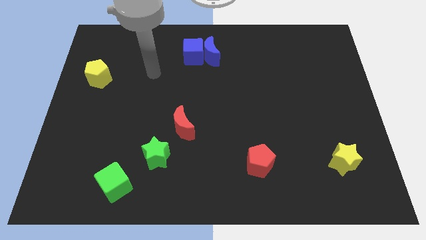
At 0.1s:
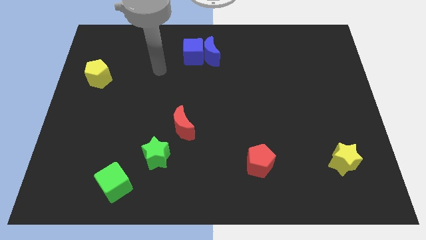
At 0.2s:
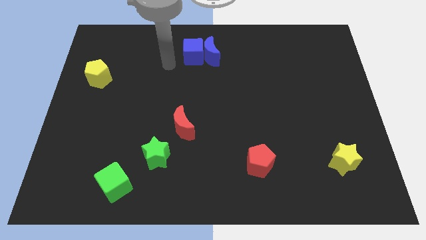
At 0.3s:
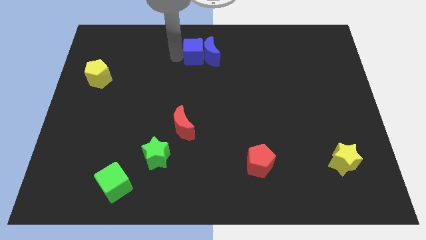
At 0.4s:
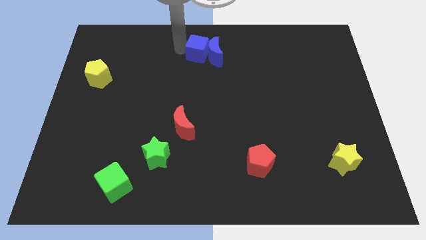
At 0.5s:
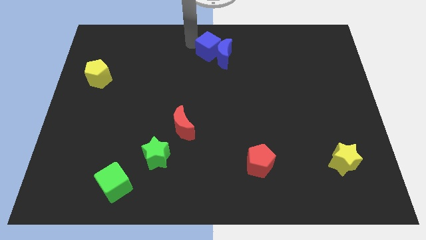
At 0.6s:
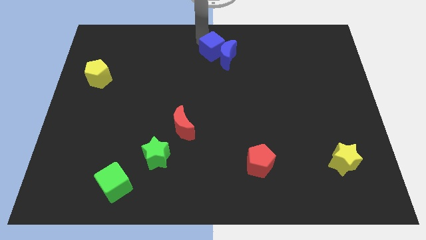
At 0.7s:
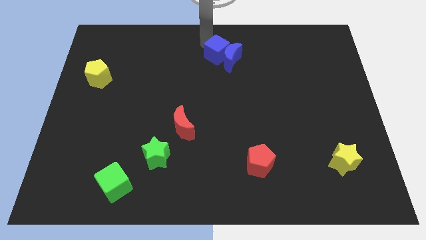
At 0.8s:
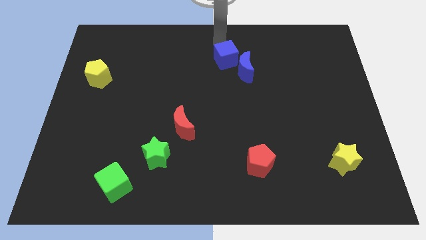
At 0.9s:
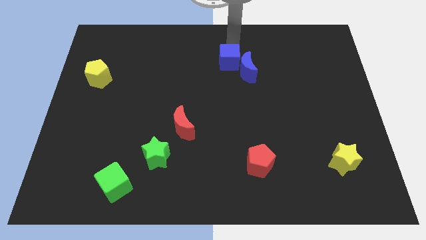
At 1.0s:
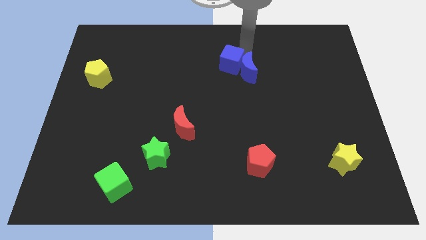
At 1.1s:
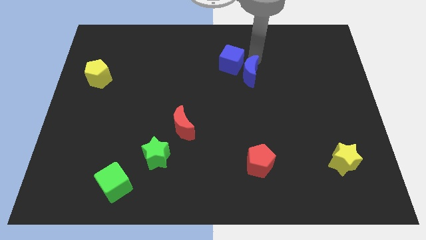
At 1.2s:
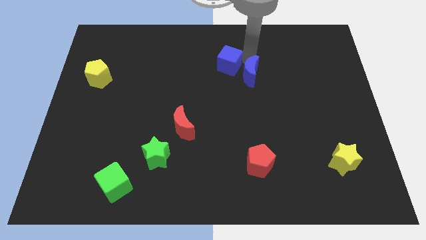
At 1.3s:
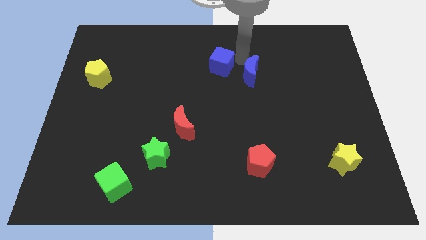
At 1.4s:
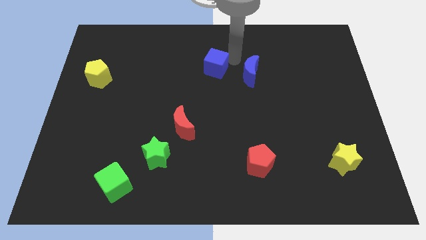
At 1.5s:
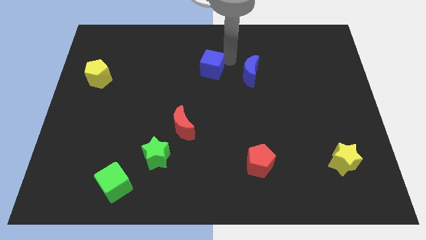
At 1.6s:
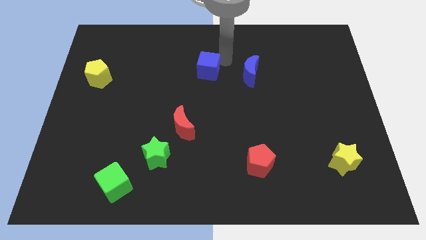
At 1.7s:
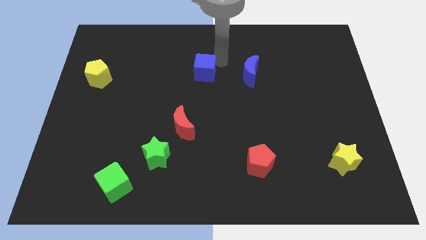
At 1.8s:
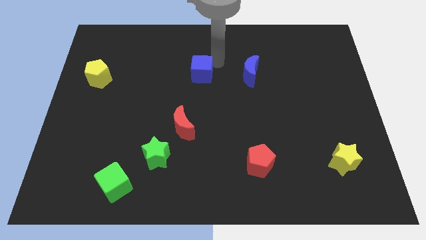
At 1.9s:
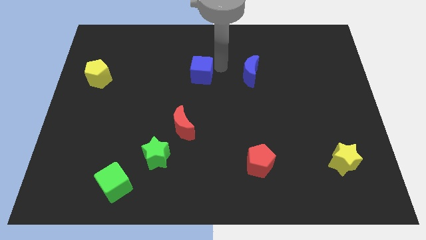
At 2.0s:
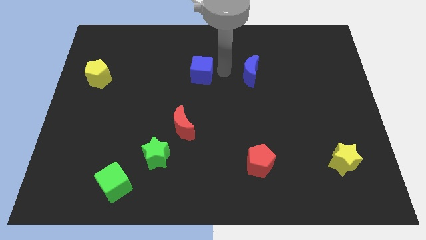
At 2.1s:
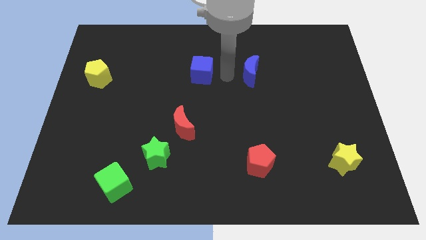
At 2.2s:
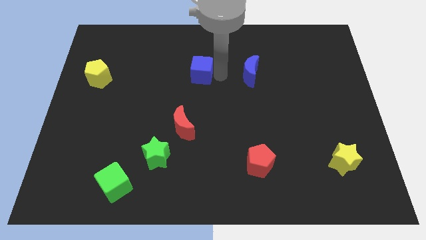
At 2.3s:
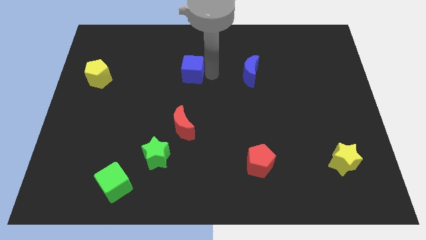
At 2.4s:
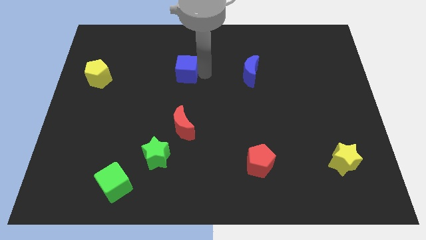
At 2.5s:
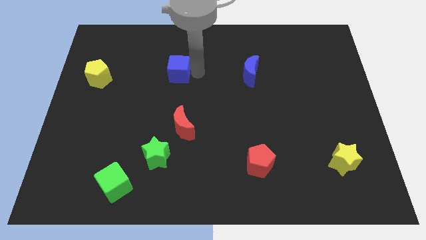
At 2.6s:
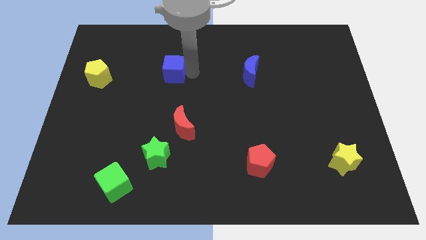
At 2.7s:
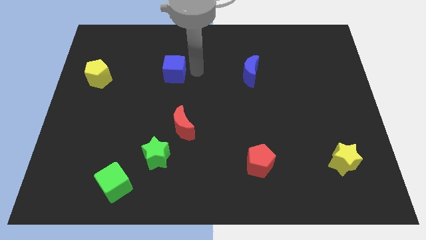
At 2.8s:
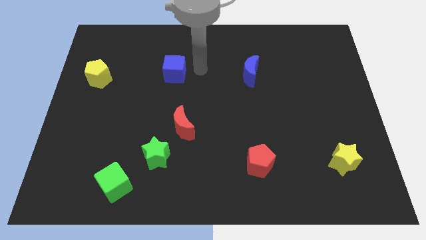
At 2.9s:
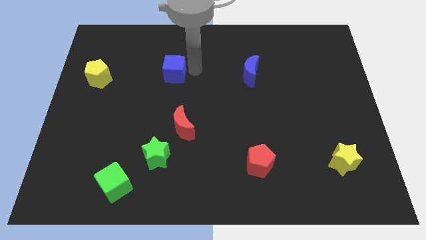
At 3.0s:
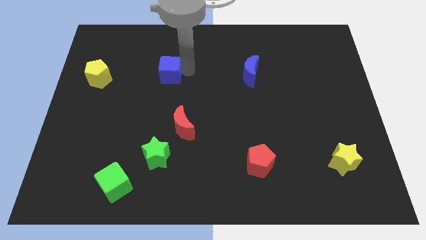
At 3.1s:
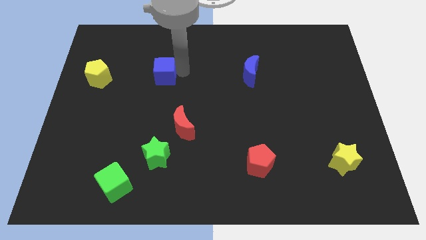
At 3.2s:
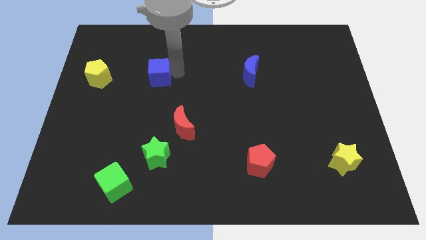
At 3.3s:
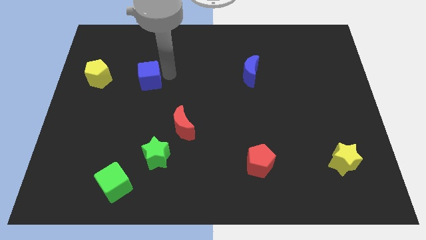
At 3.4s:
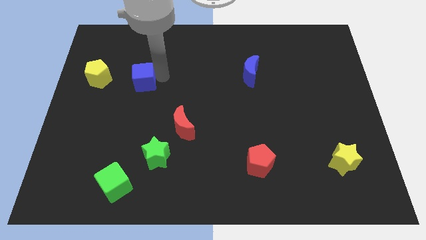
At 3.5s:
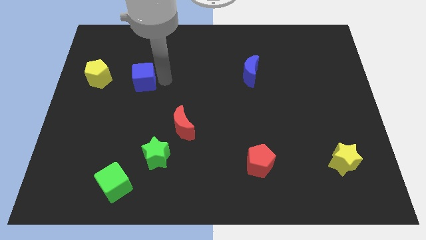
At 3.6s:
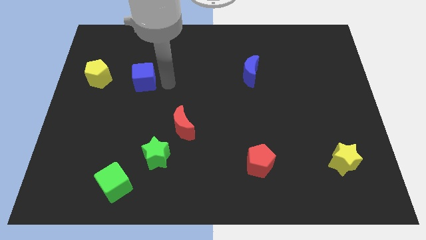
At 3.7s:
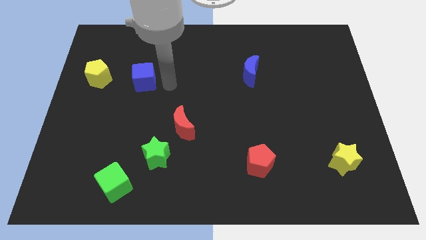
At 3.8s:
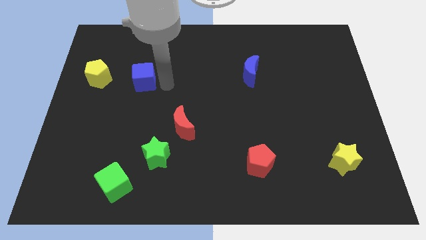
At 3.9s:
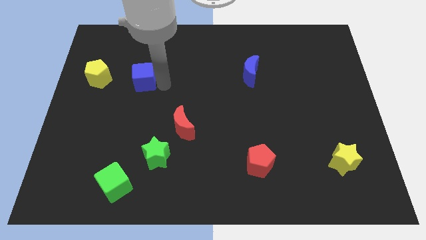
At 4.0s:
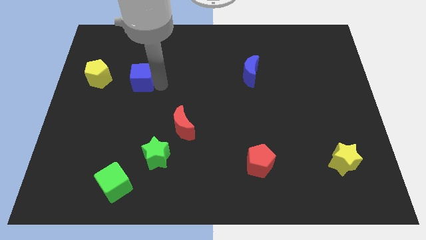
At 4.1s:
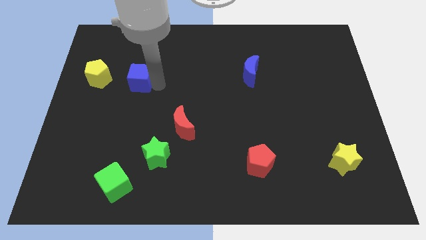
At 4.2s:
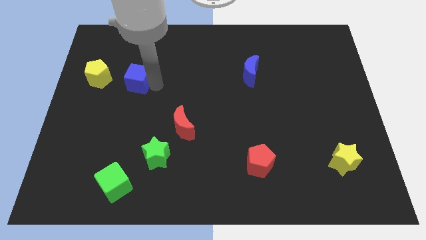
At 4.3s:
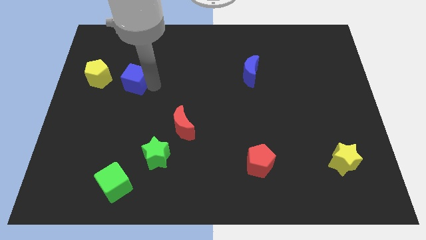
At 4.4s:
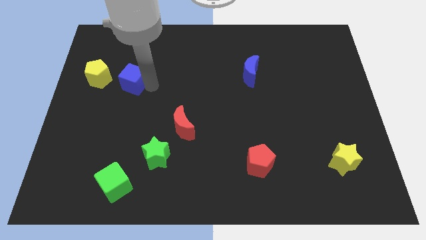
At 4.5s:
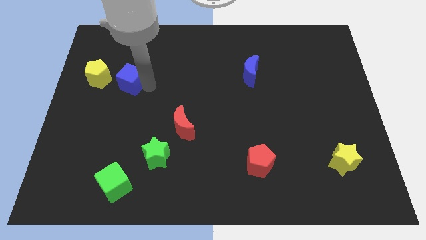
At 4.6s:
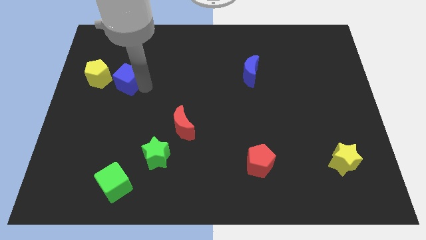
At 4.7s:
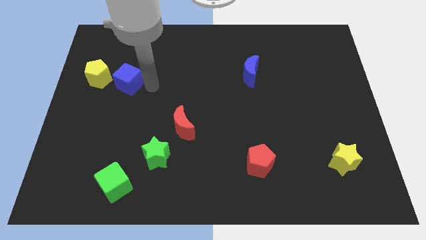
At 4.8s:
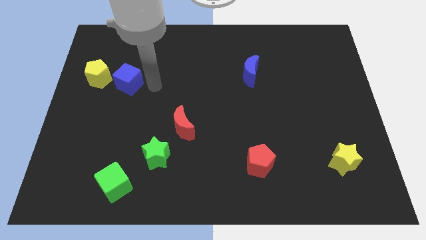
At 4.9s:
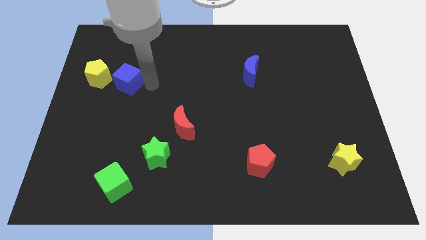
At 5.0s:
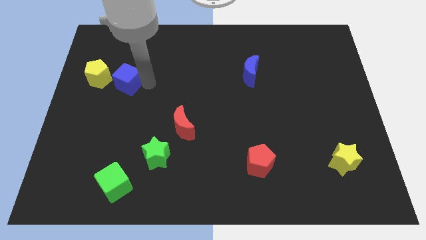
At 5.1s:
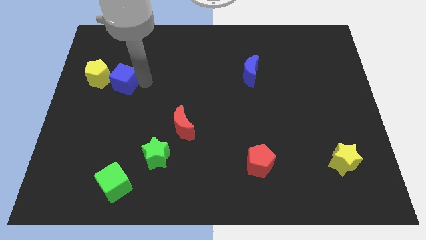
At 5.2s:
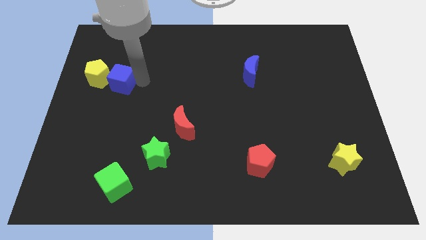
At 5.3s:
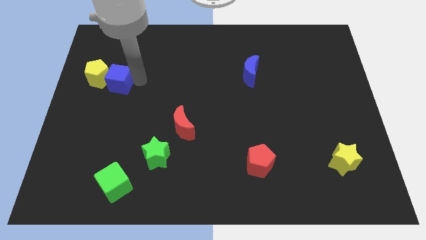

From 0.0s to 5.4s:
push the blue cube towards the yellow pentagon
